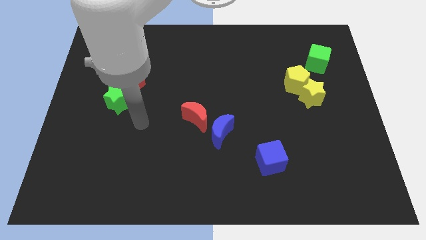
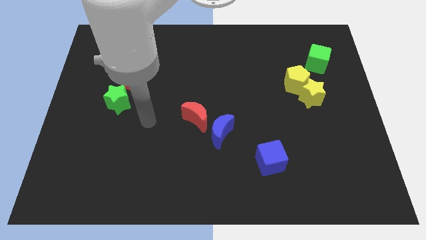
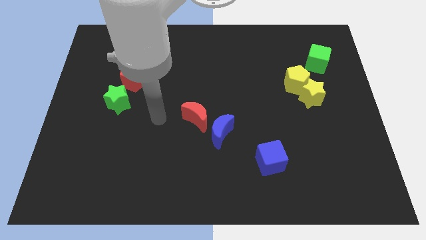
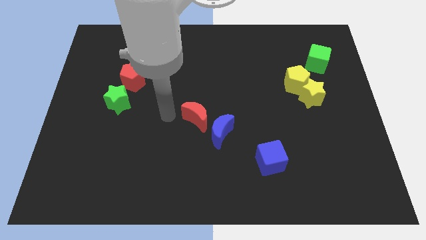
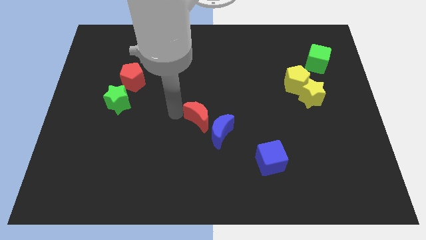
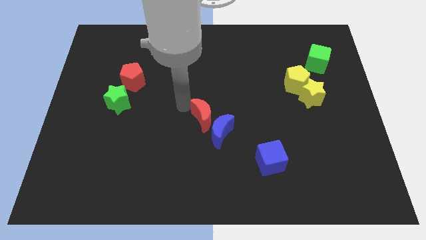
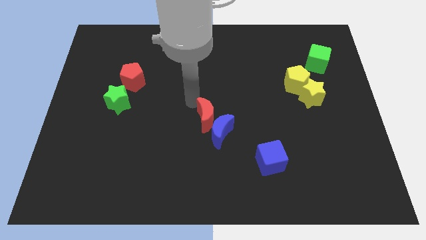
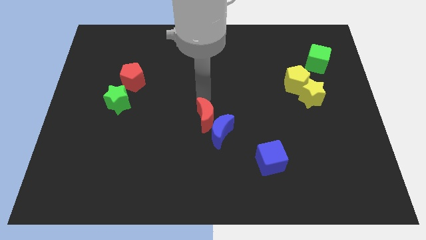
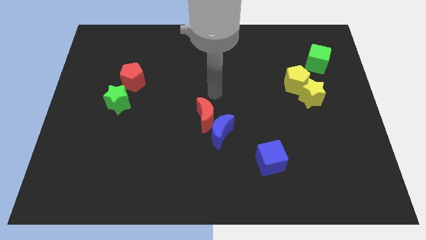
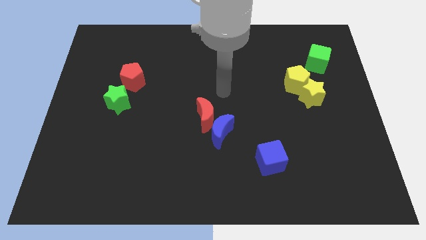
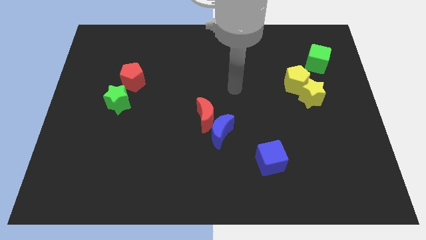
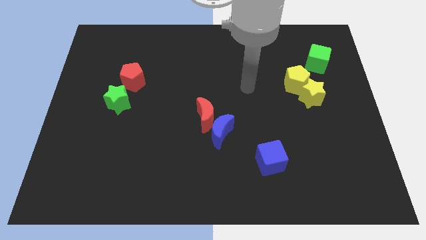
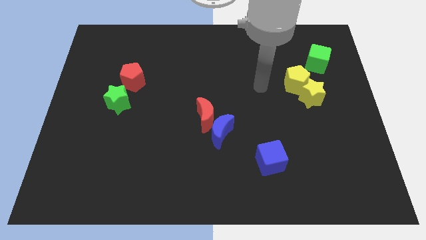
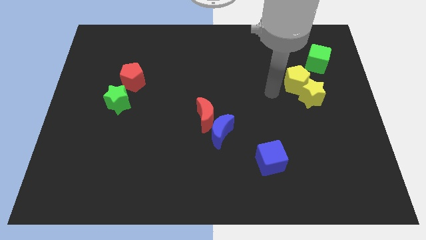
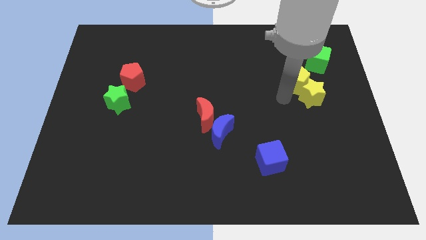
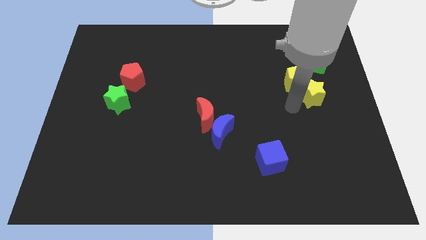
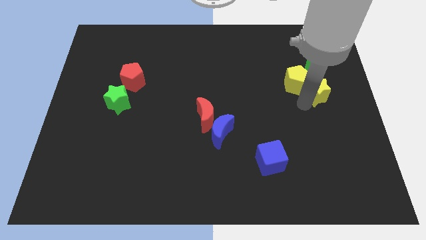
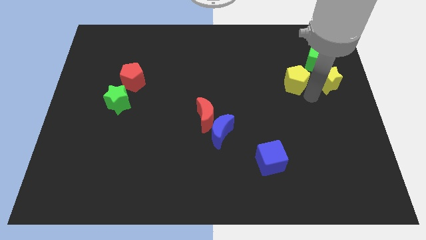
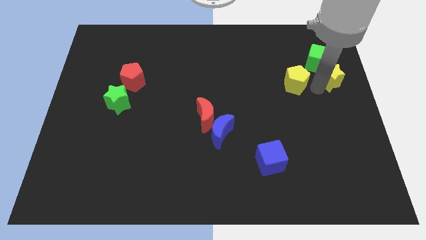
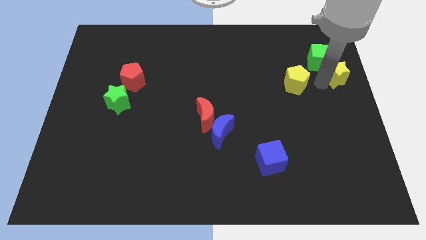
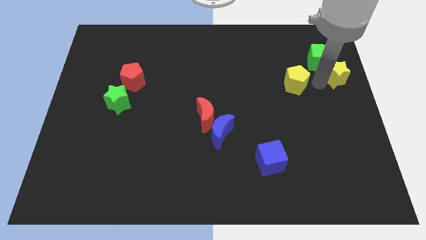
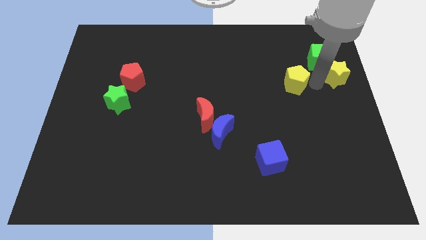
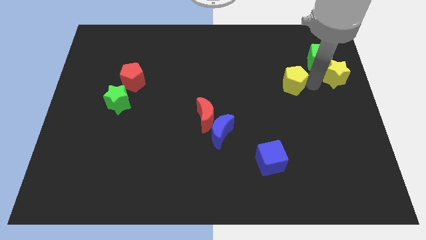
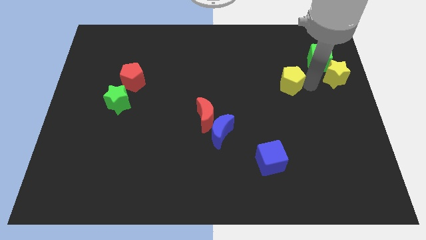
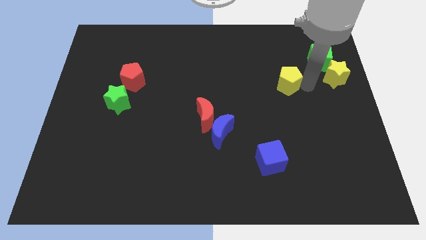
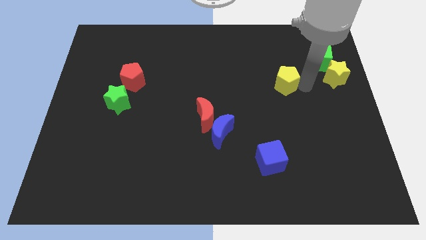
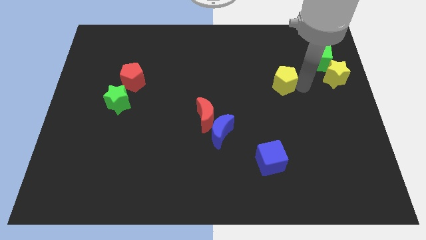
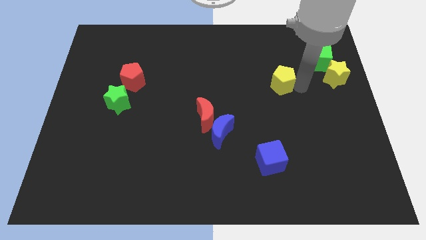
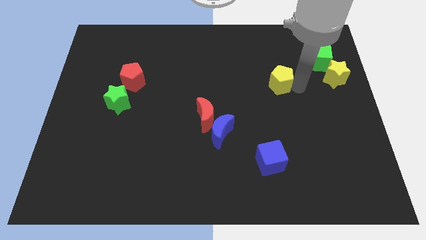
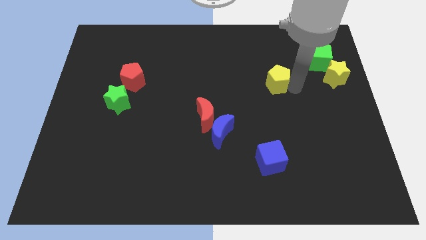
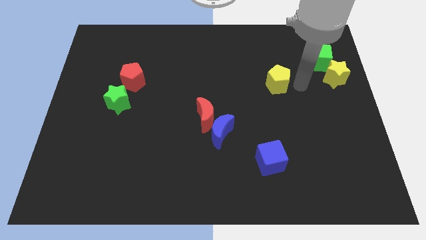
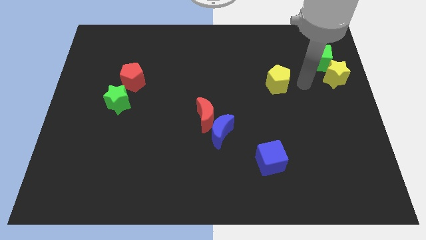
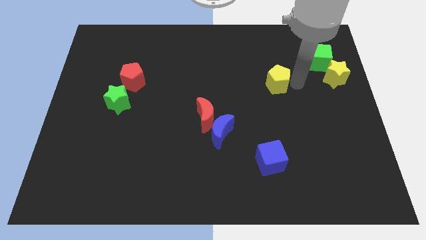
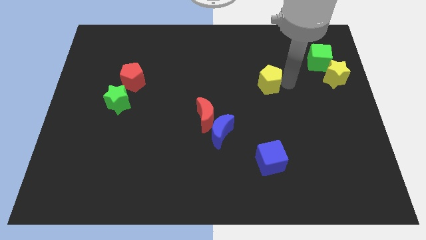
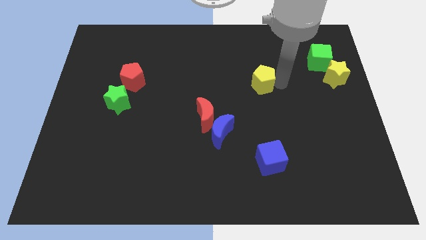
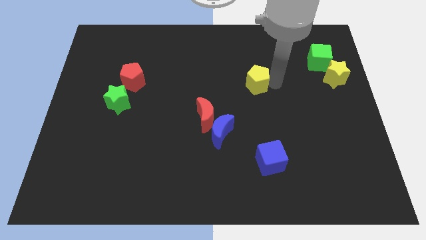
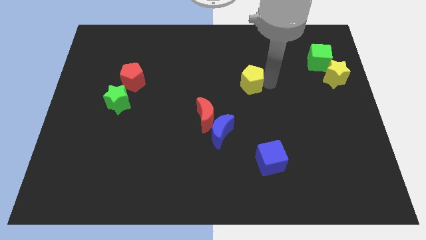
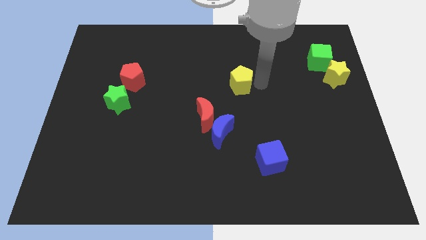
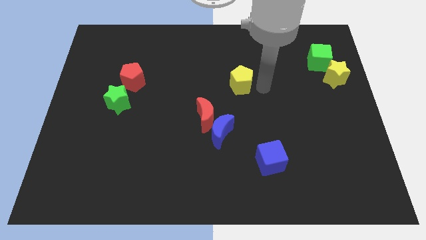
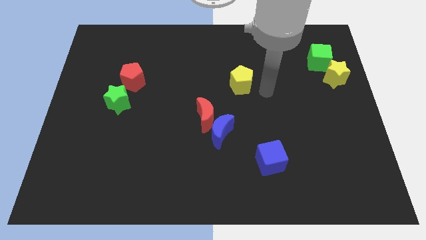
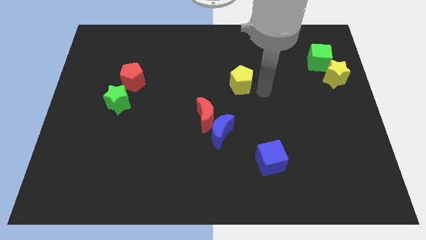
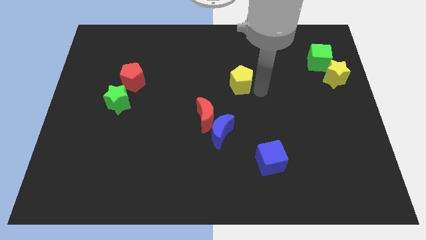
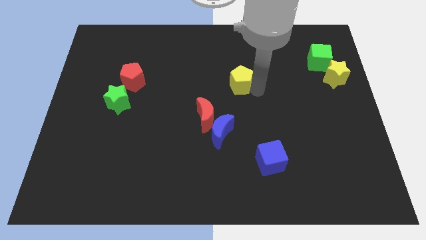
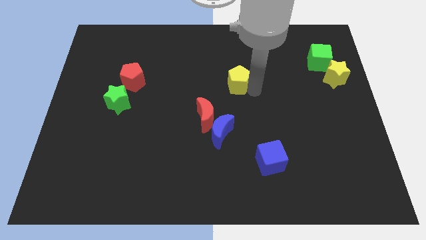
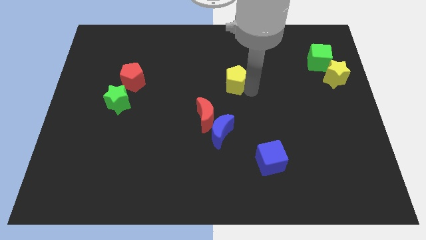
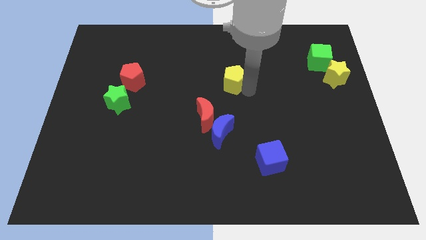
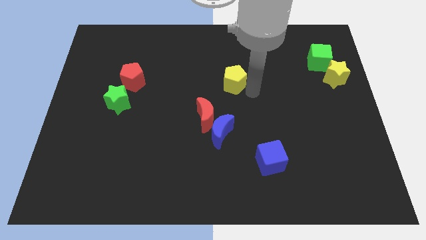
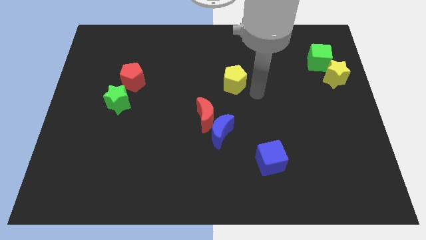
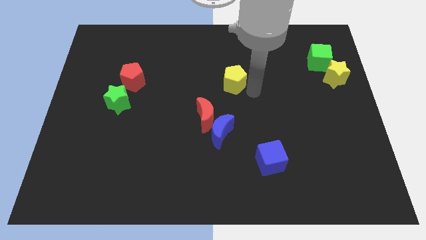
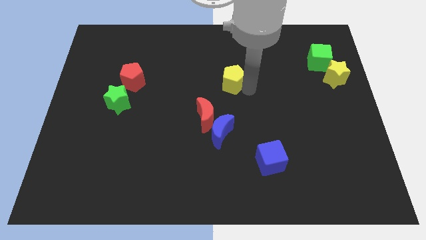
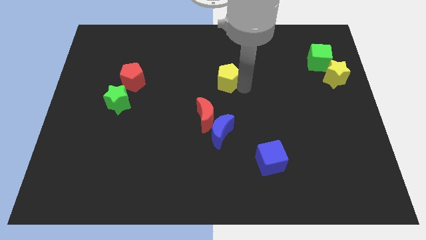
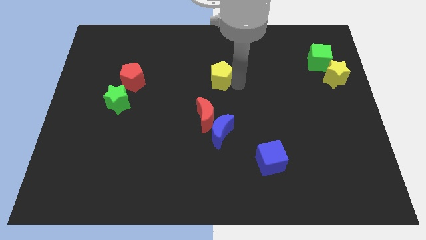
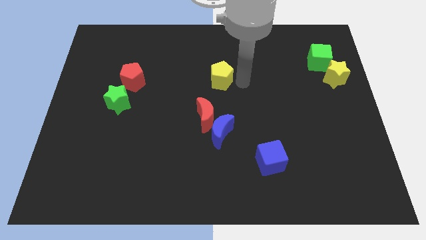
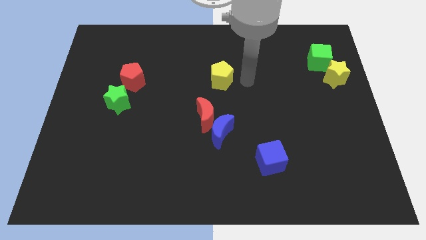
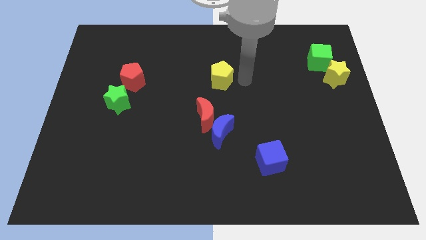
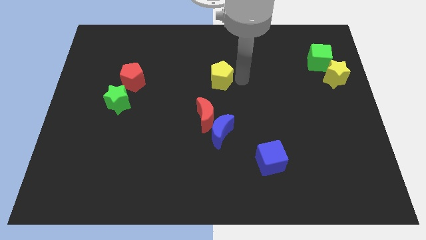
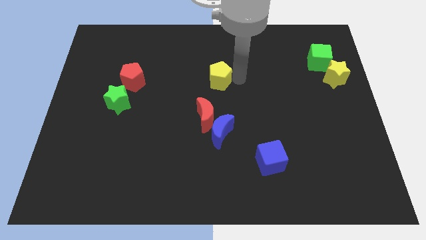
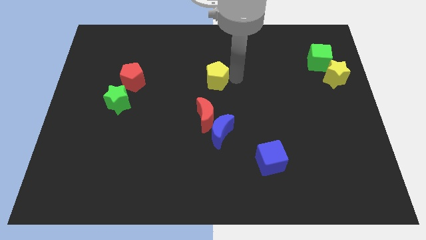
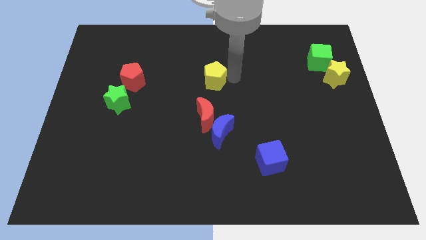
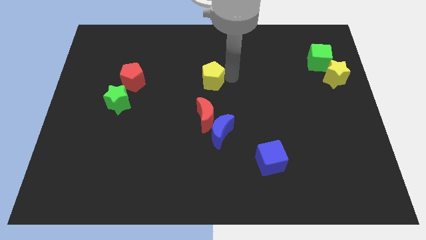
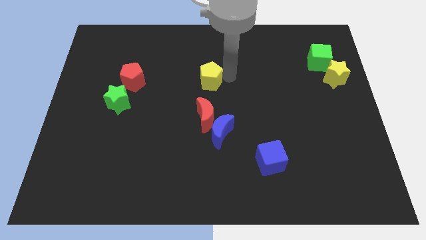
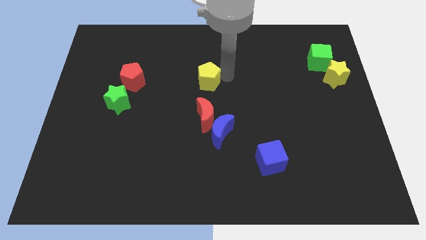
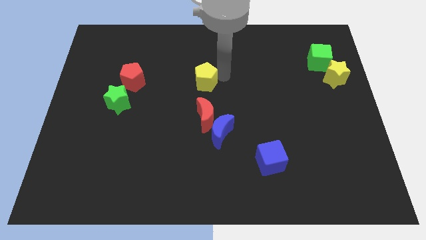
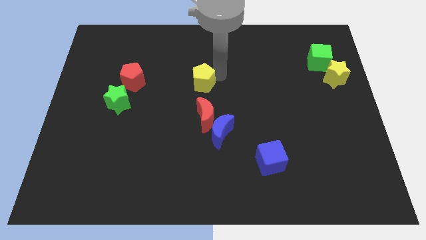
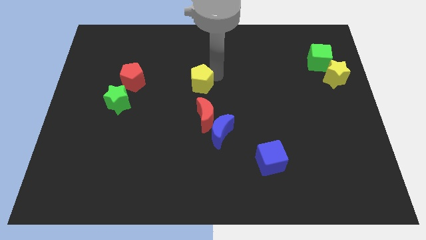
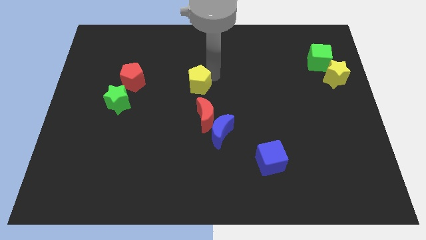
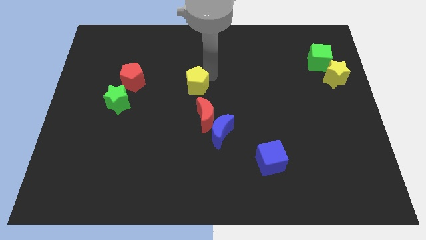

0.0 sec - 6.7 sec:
slide the yellow pentagon just right of the red pentagon

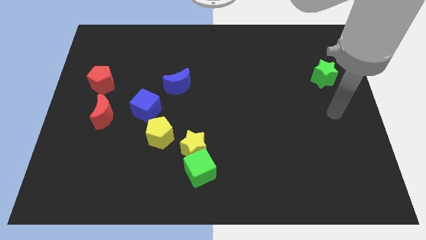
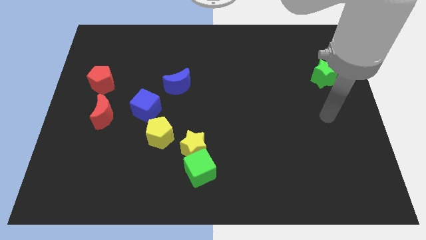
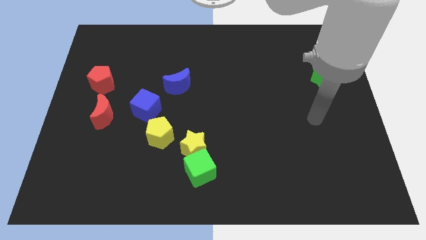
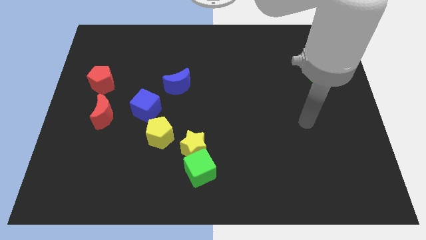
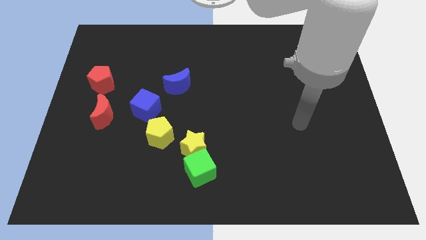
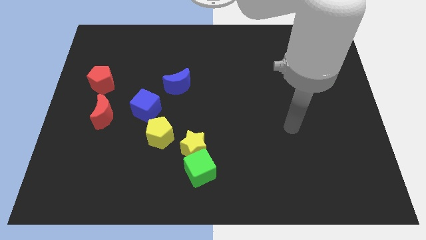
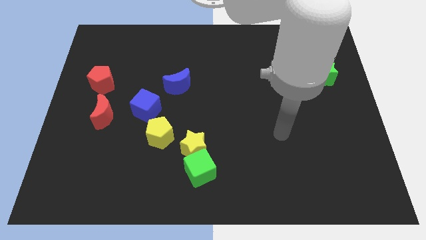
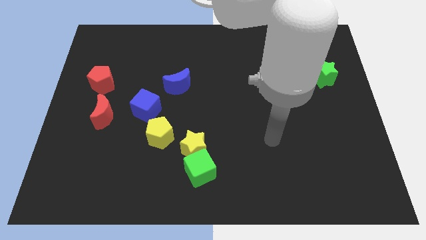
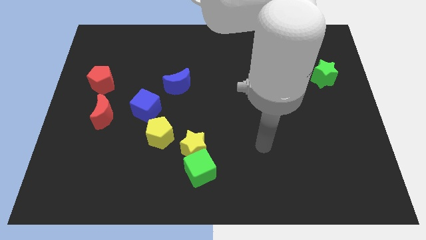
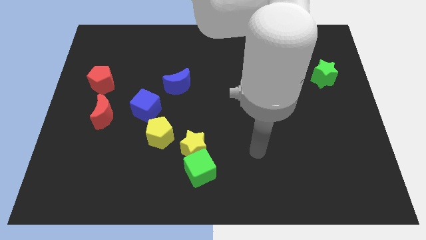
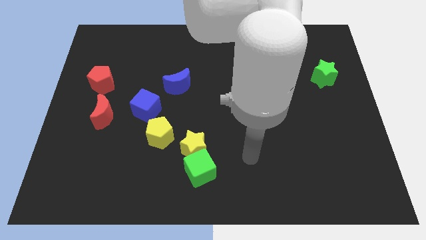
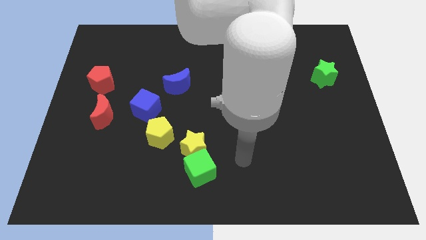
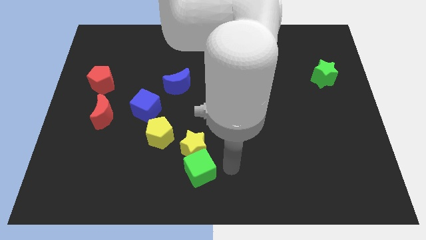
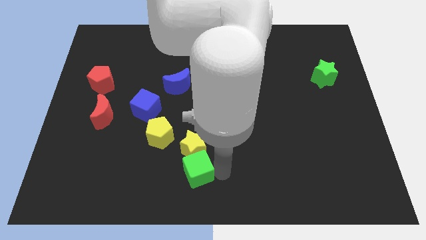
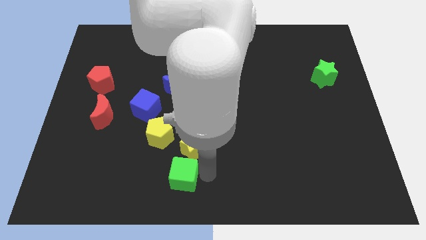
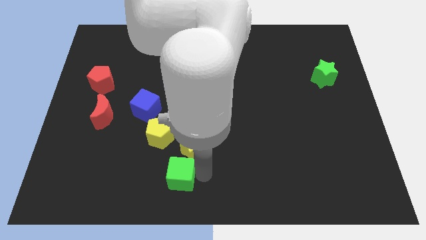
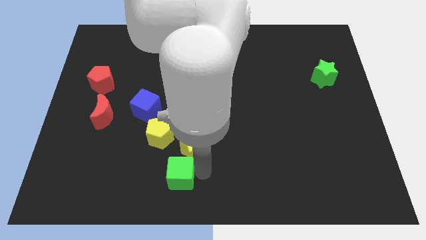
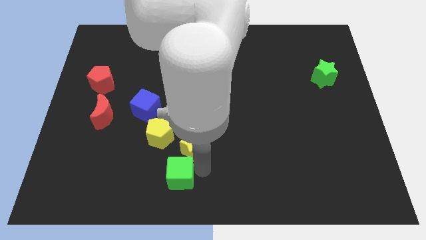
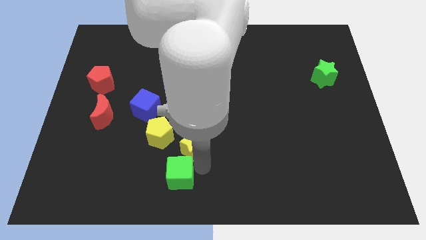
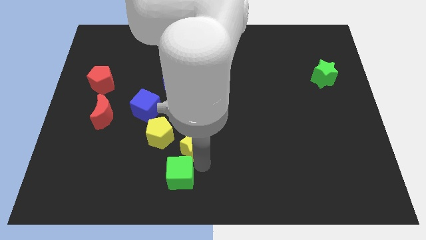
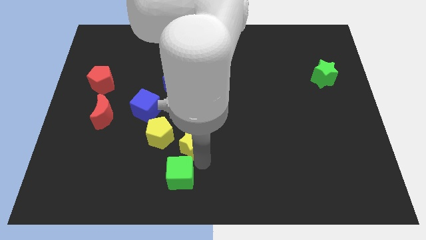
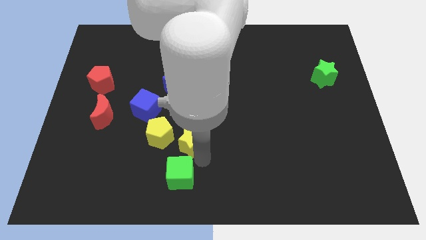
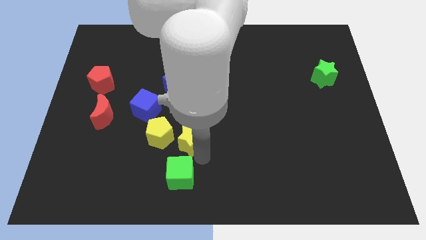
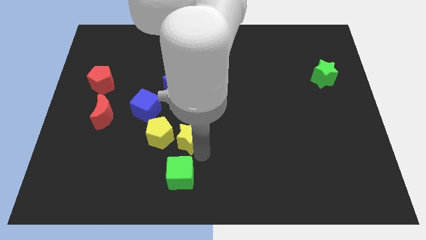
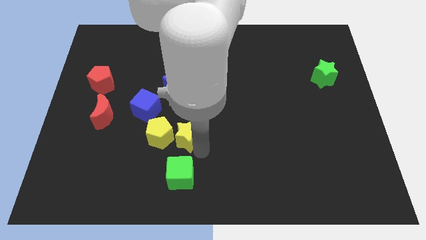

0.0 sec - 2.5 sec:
push the yellow star to the bottom of the blue moon
